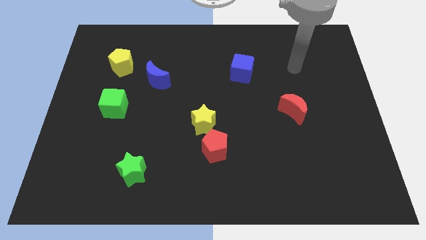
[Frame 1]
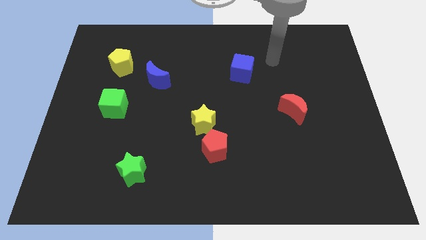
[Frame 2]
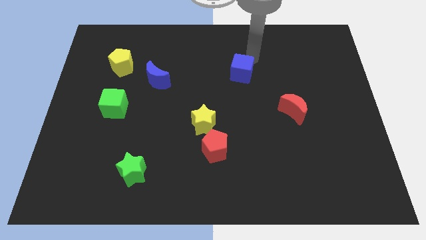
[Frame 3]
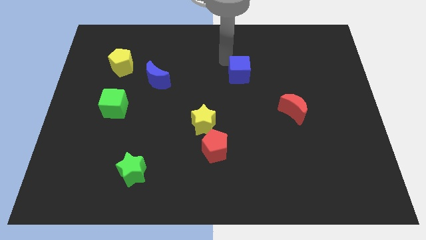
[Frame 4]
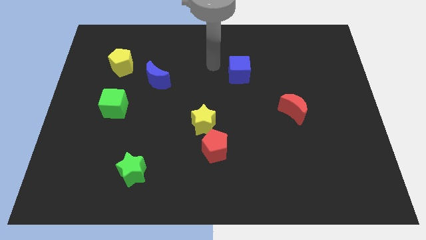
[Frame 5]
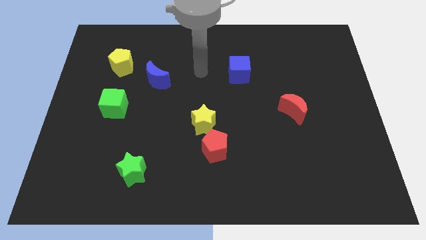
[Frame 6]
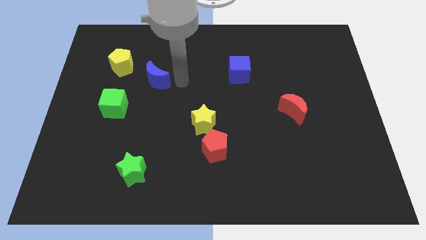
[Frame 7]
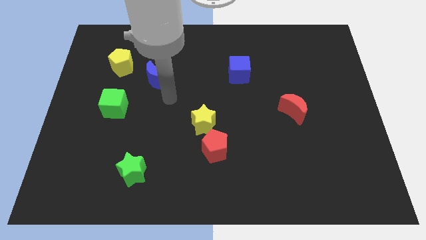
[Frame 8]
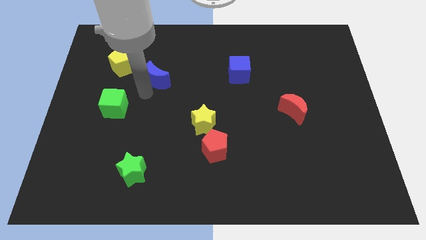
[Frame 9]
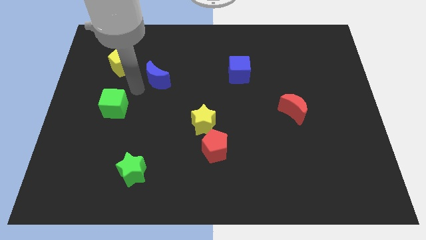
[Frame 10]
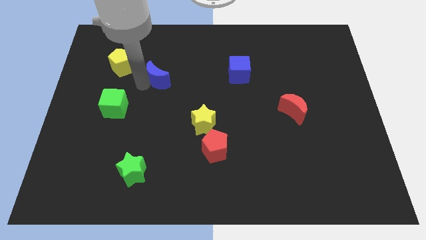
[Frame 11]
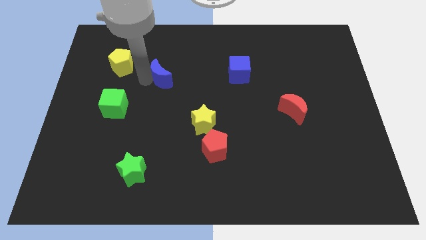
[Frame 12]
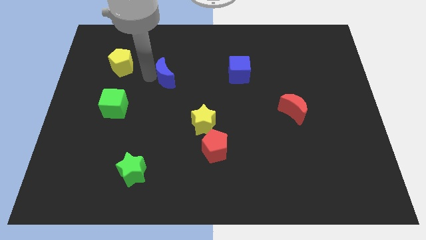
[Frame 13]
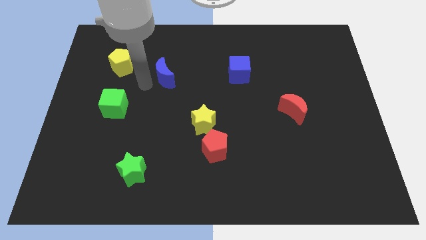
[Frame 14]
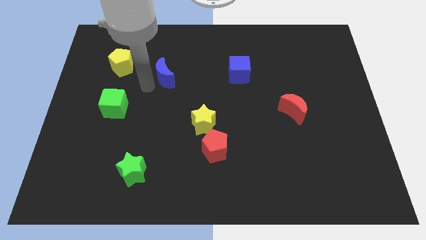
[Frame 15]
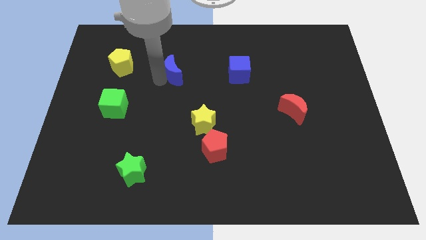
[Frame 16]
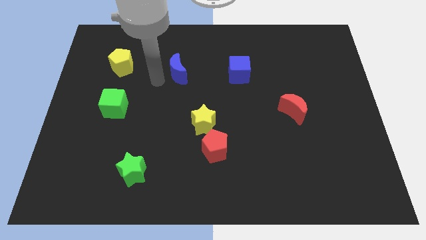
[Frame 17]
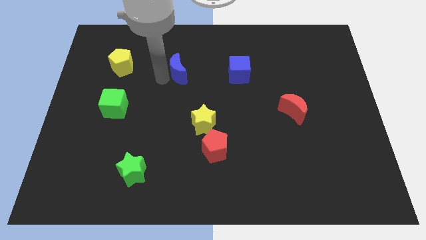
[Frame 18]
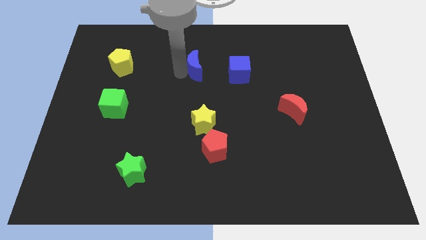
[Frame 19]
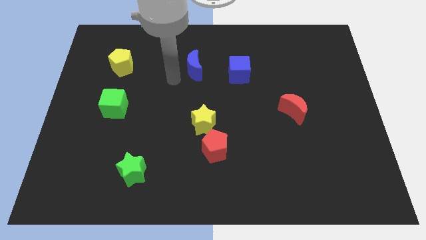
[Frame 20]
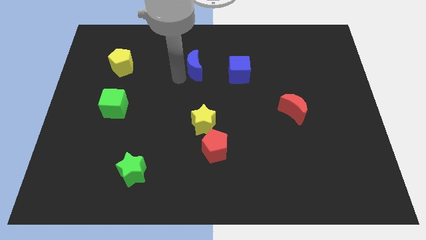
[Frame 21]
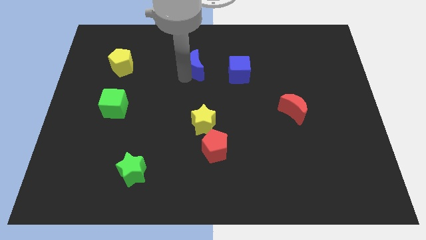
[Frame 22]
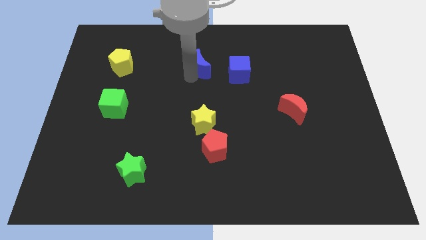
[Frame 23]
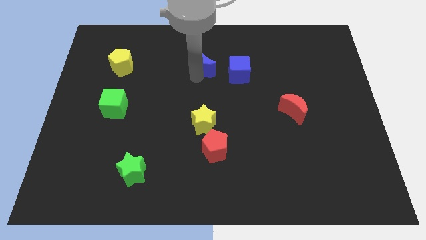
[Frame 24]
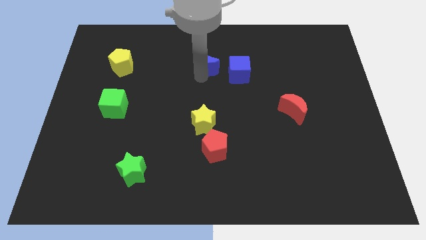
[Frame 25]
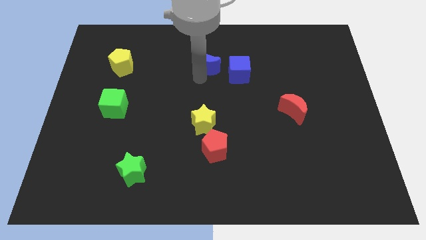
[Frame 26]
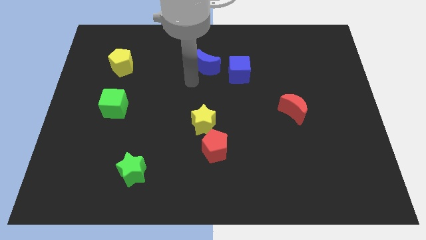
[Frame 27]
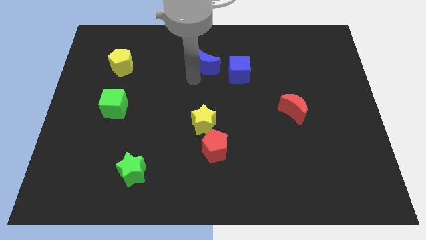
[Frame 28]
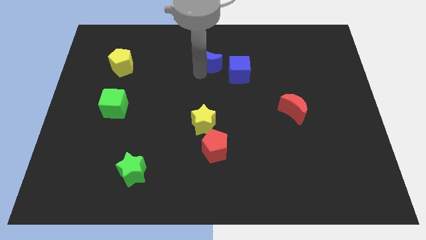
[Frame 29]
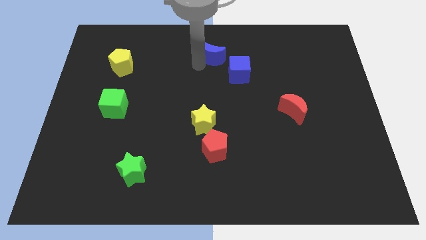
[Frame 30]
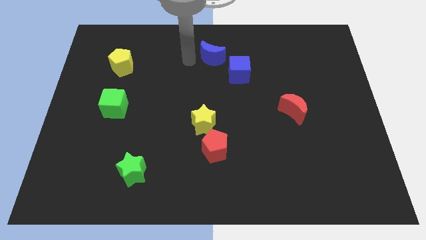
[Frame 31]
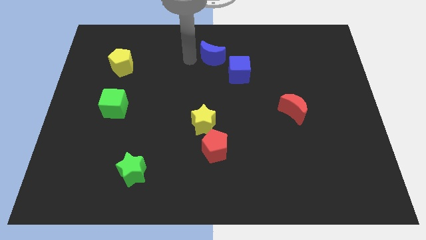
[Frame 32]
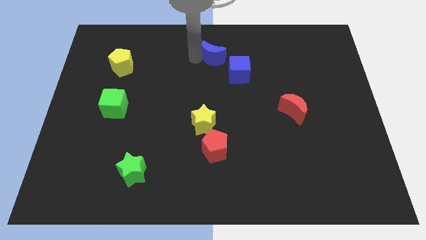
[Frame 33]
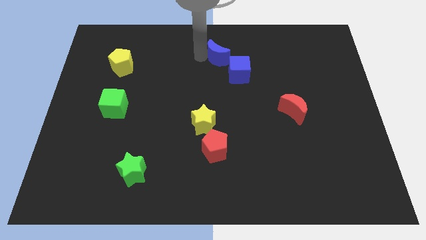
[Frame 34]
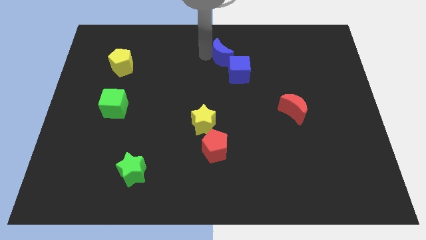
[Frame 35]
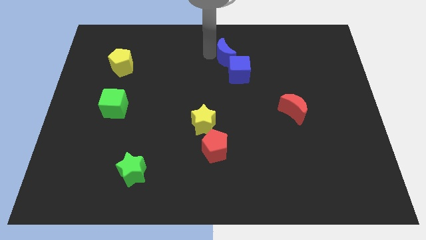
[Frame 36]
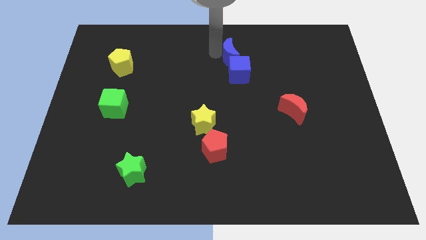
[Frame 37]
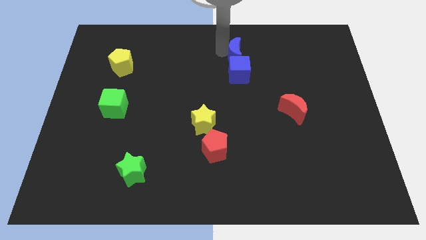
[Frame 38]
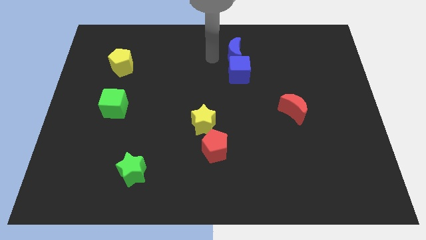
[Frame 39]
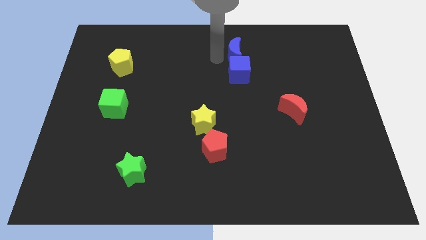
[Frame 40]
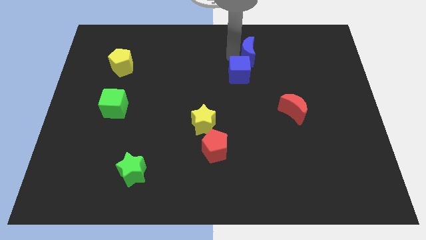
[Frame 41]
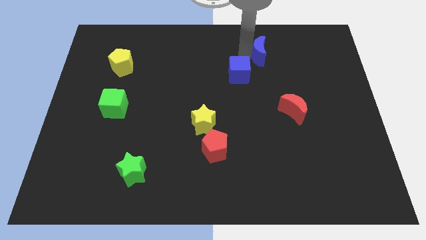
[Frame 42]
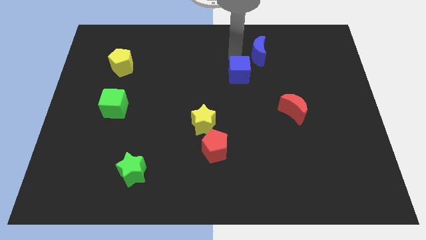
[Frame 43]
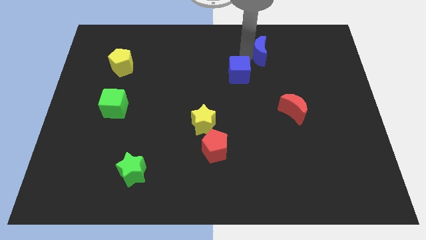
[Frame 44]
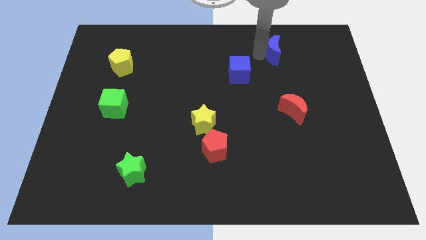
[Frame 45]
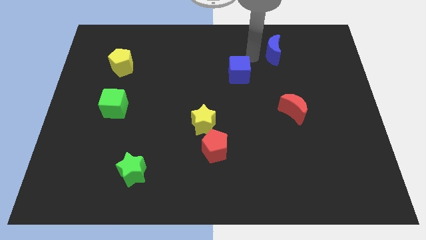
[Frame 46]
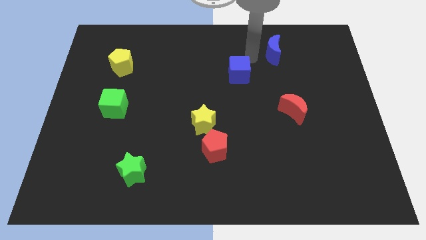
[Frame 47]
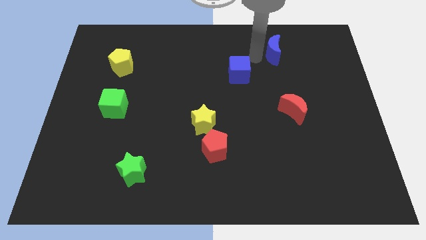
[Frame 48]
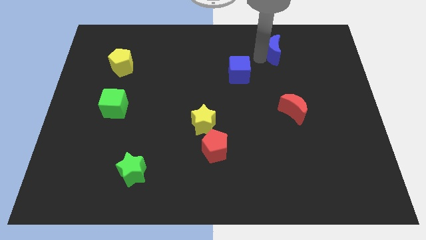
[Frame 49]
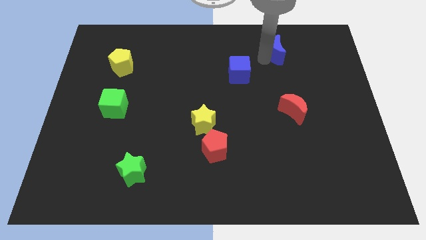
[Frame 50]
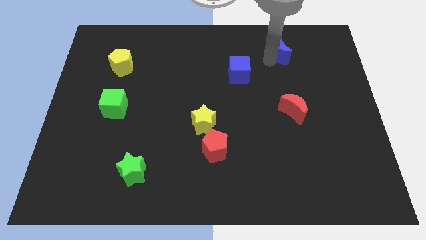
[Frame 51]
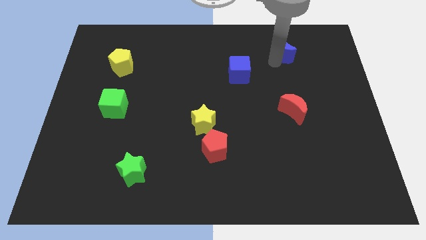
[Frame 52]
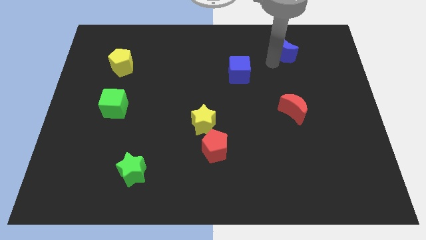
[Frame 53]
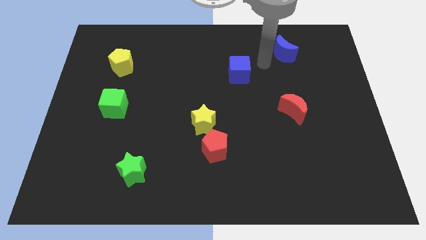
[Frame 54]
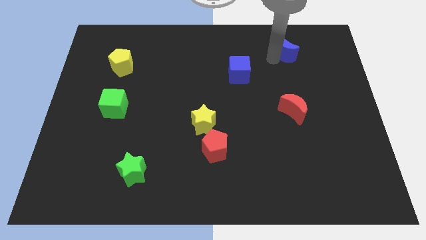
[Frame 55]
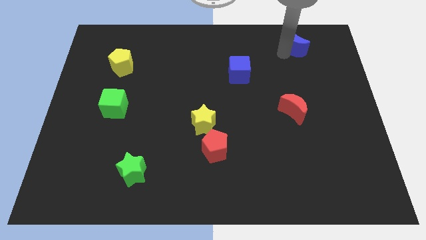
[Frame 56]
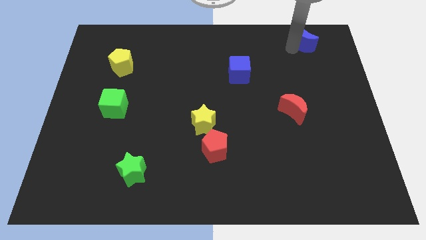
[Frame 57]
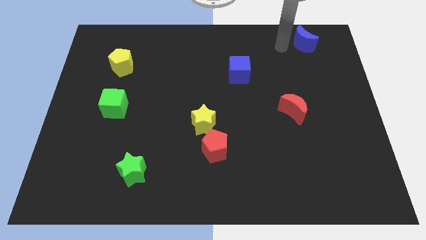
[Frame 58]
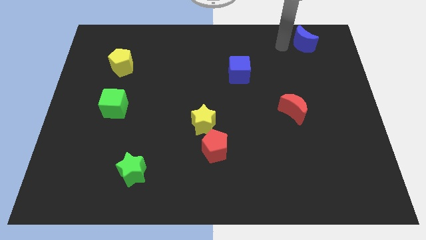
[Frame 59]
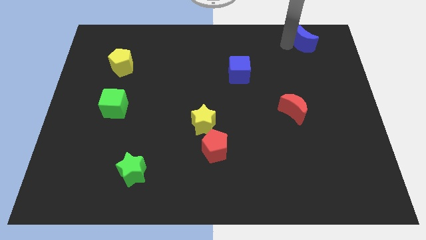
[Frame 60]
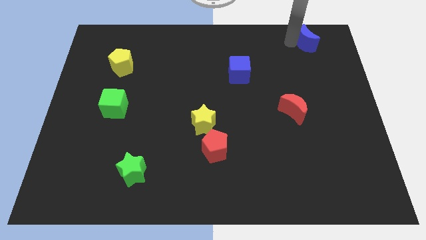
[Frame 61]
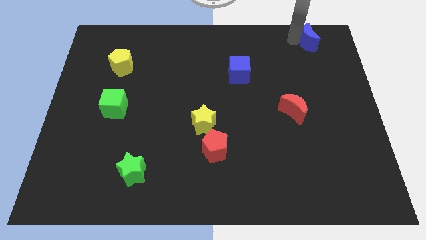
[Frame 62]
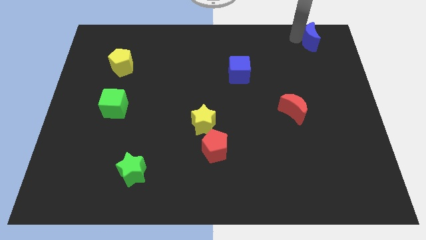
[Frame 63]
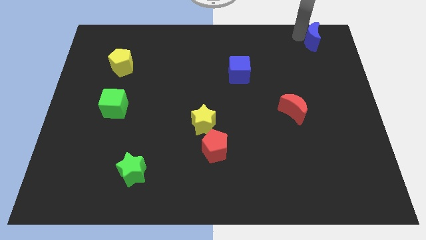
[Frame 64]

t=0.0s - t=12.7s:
put the blue moon to the top right corner
